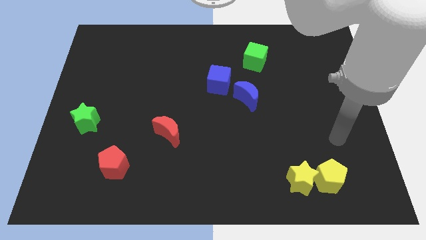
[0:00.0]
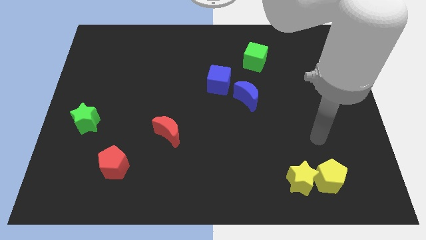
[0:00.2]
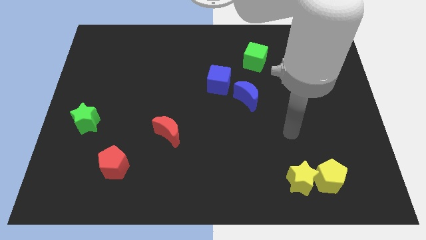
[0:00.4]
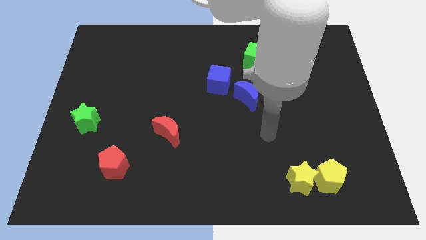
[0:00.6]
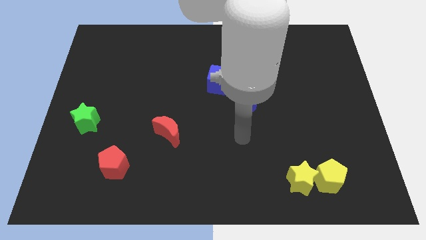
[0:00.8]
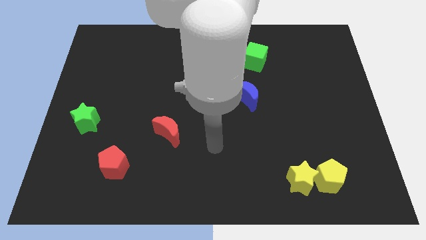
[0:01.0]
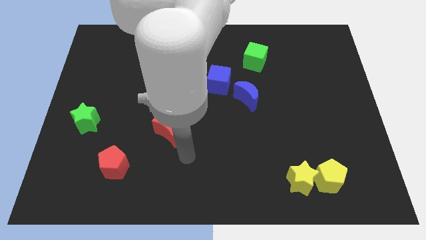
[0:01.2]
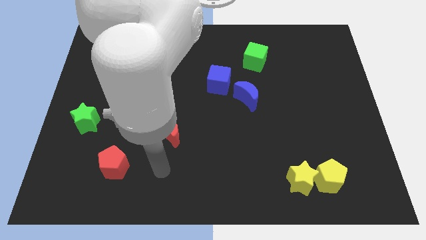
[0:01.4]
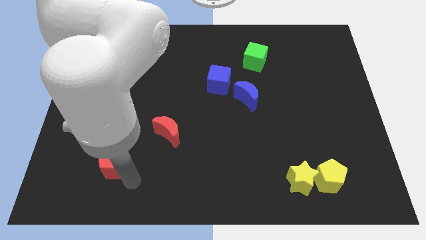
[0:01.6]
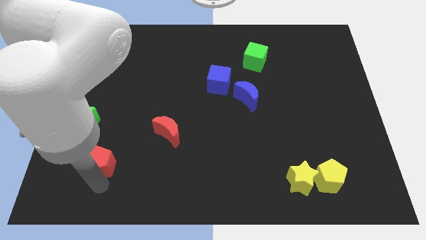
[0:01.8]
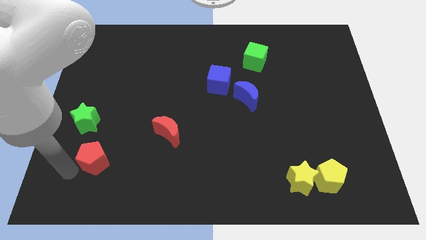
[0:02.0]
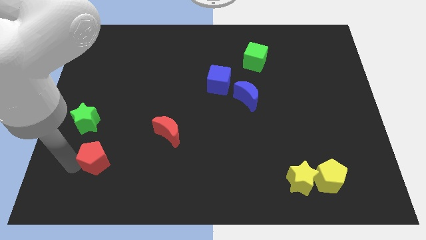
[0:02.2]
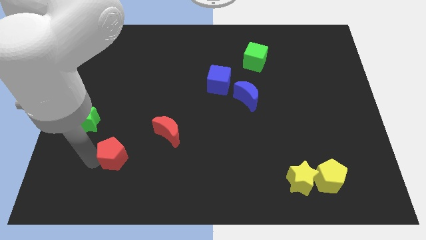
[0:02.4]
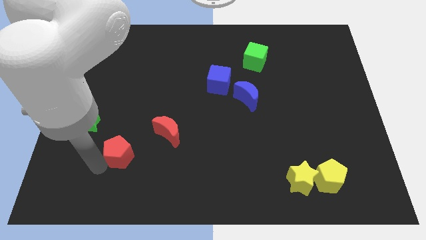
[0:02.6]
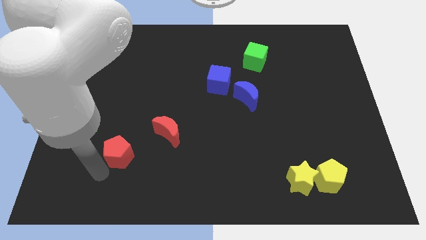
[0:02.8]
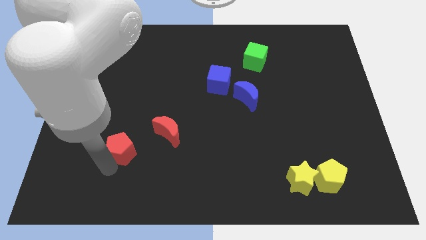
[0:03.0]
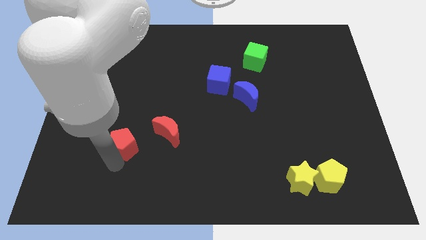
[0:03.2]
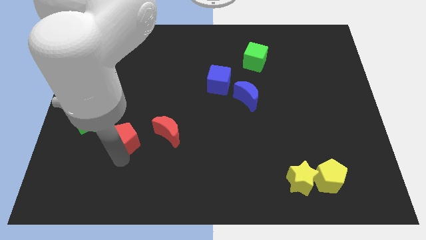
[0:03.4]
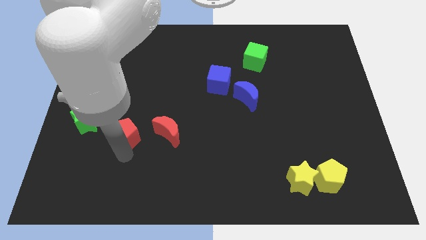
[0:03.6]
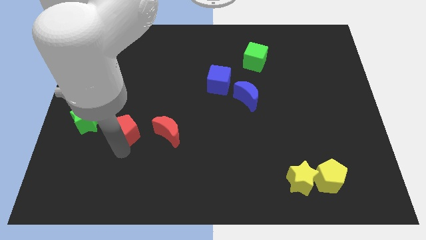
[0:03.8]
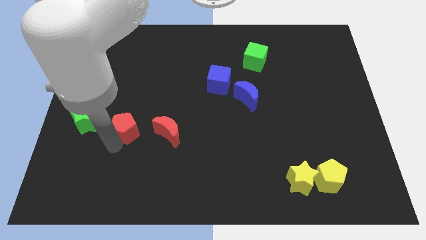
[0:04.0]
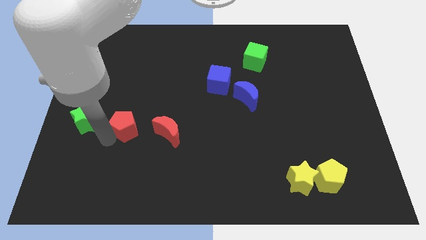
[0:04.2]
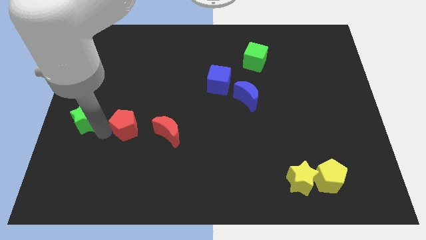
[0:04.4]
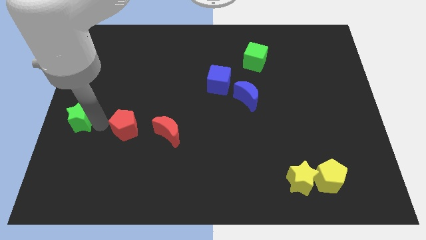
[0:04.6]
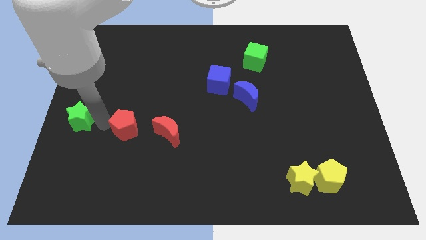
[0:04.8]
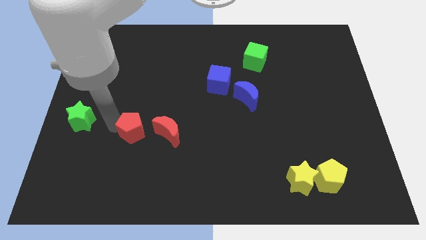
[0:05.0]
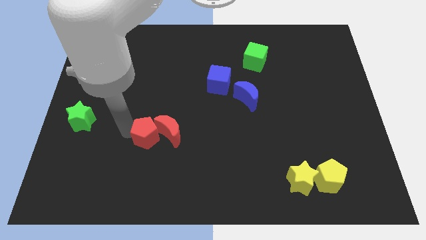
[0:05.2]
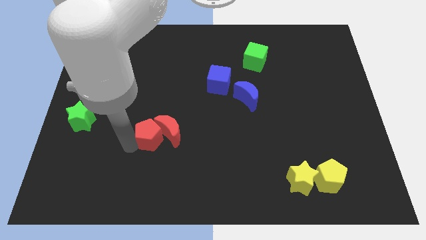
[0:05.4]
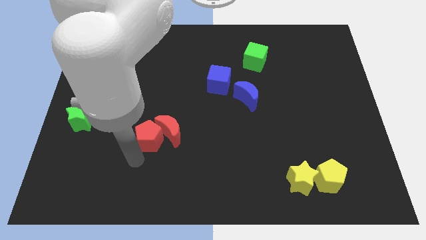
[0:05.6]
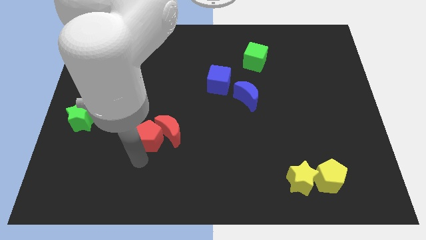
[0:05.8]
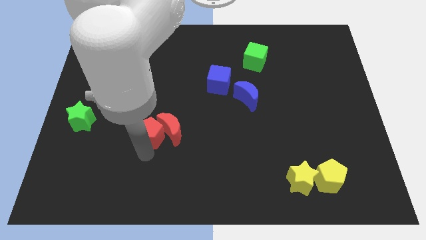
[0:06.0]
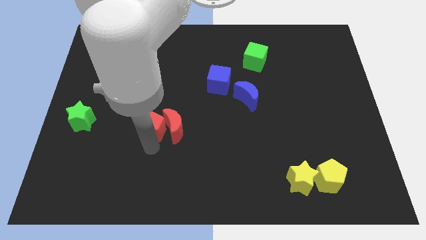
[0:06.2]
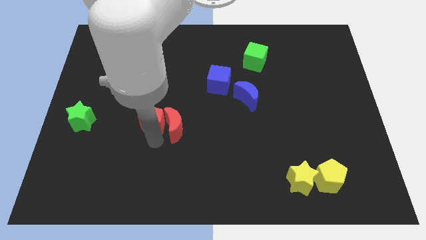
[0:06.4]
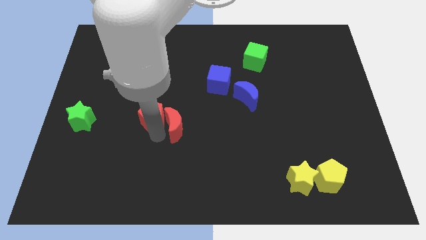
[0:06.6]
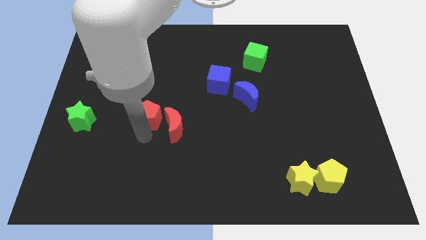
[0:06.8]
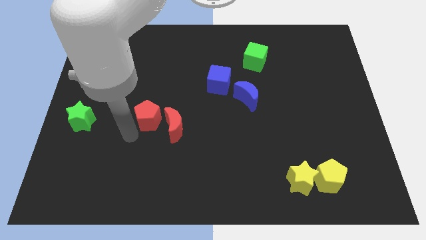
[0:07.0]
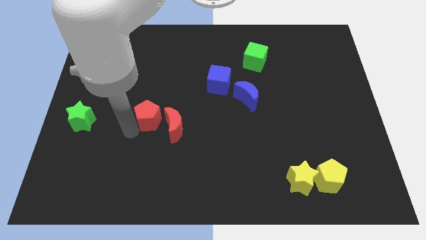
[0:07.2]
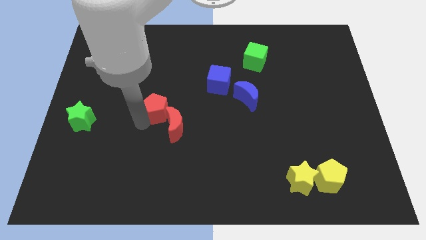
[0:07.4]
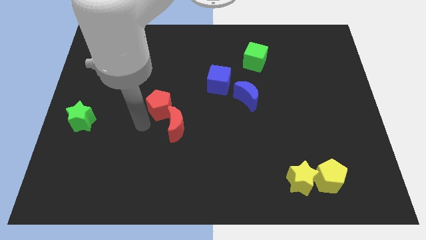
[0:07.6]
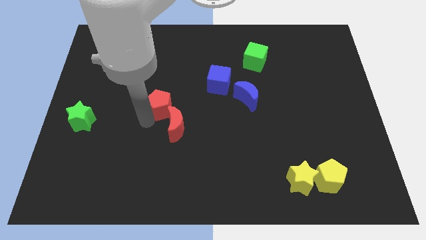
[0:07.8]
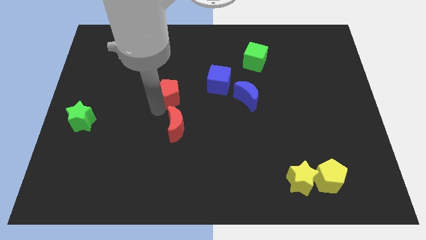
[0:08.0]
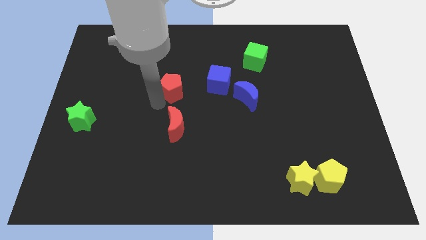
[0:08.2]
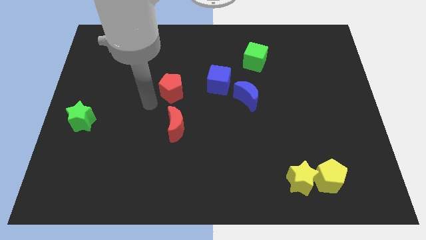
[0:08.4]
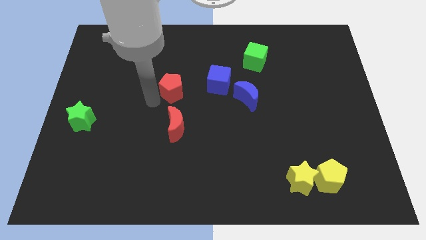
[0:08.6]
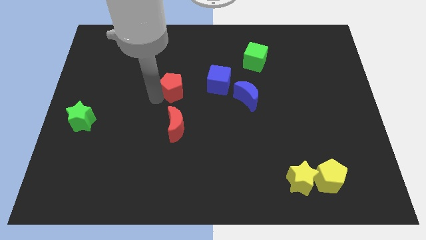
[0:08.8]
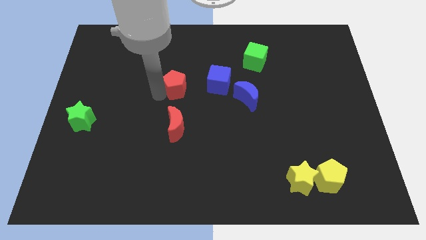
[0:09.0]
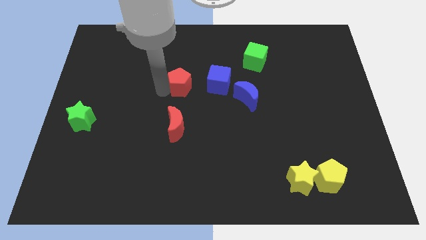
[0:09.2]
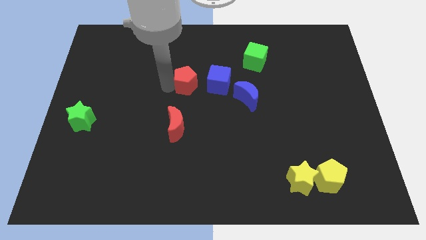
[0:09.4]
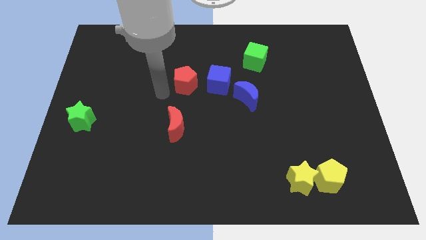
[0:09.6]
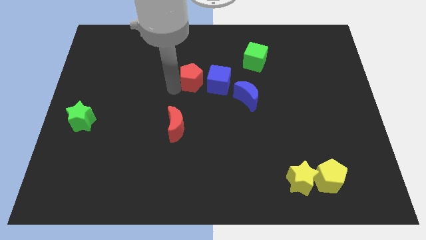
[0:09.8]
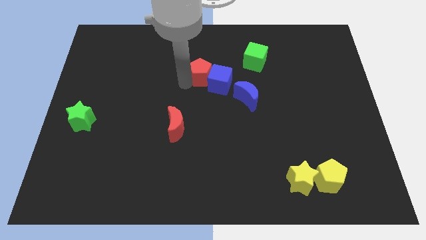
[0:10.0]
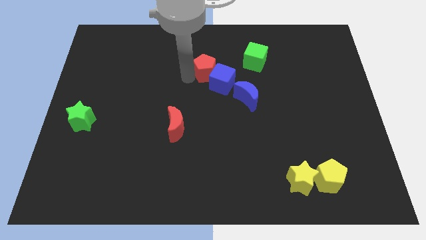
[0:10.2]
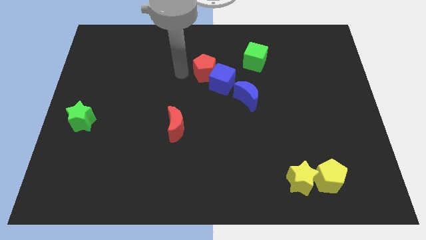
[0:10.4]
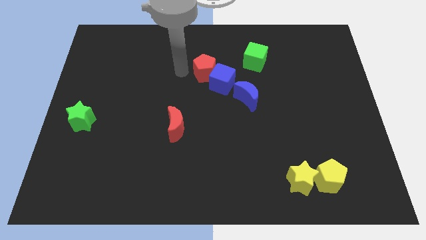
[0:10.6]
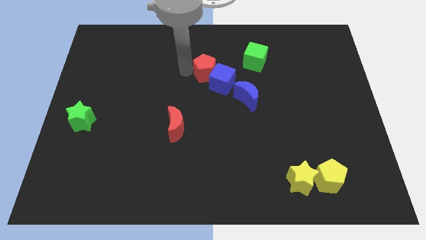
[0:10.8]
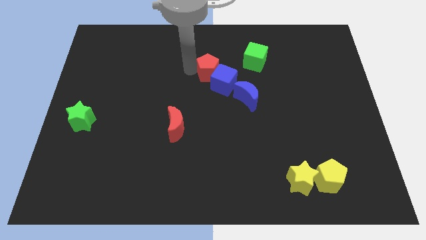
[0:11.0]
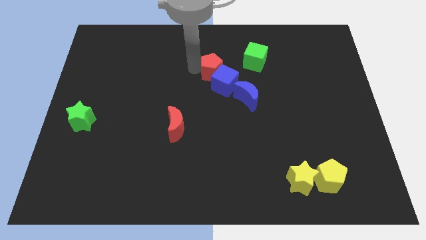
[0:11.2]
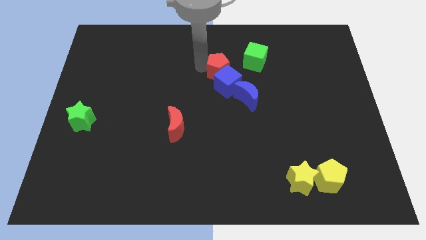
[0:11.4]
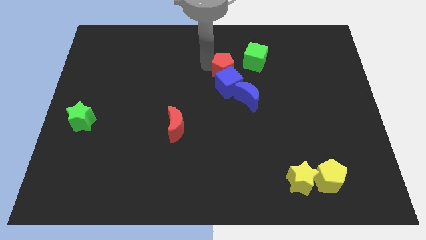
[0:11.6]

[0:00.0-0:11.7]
put the red pentagon to the top right of the blue cube

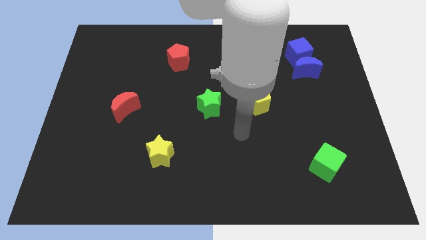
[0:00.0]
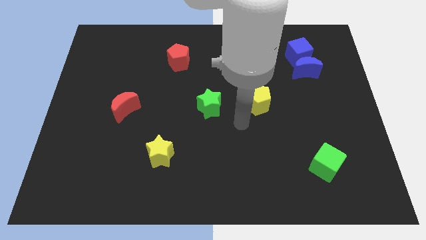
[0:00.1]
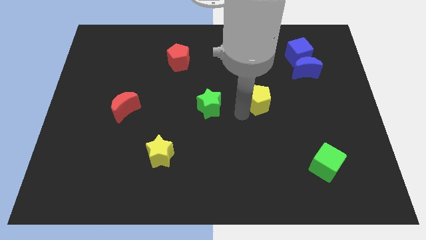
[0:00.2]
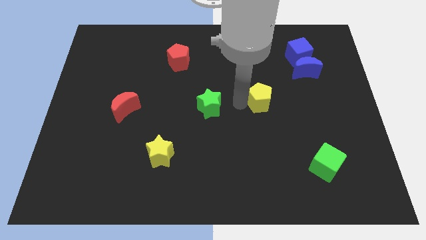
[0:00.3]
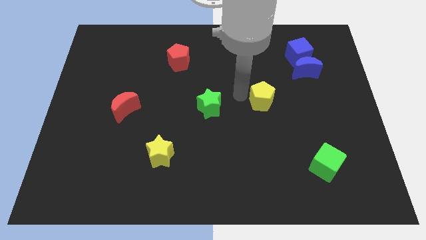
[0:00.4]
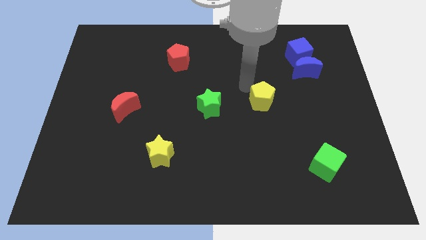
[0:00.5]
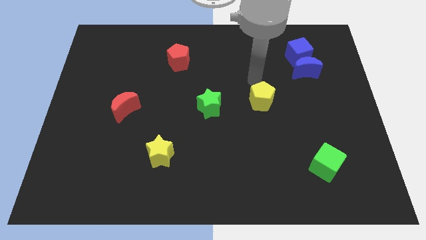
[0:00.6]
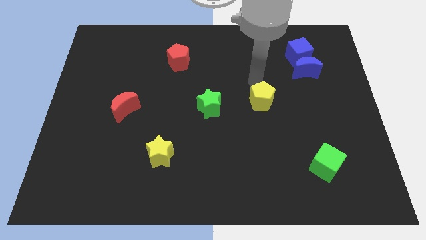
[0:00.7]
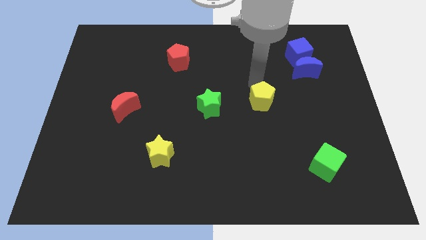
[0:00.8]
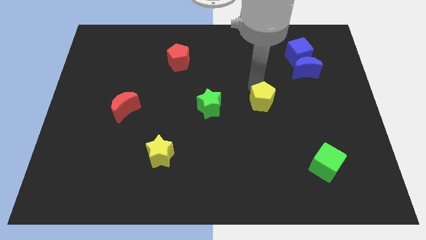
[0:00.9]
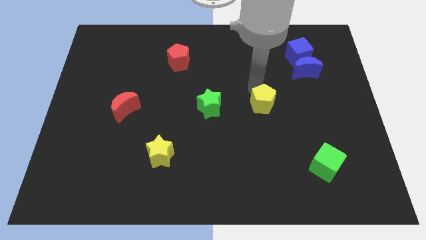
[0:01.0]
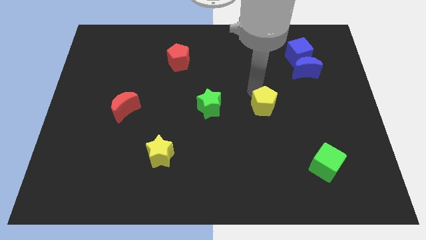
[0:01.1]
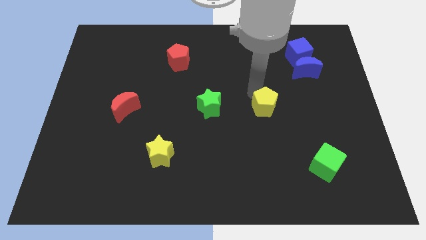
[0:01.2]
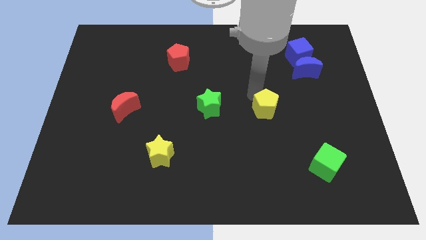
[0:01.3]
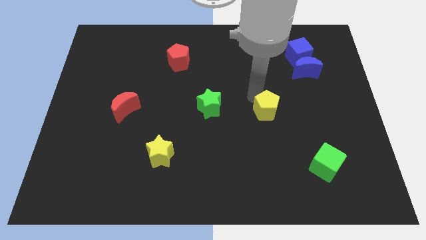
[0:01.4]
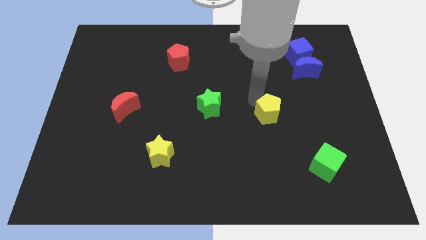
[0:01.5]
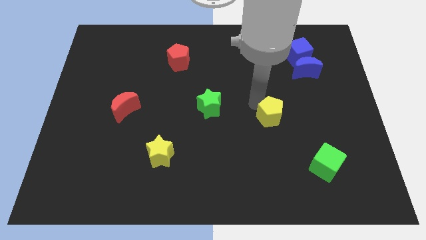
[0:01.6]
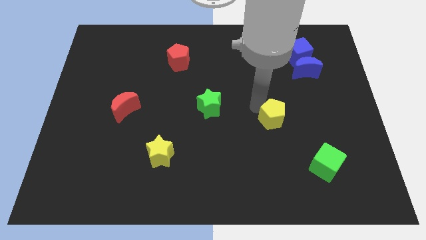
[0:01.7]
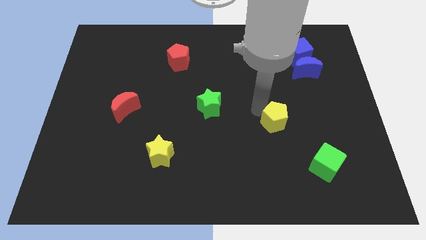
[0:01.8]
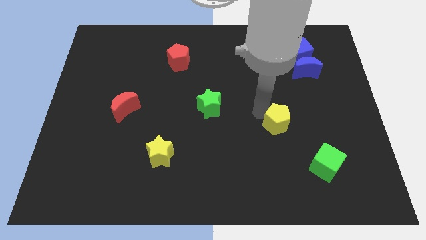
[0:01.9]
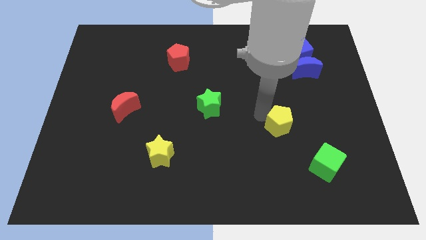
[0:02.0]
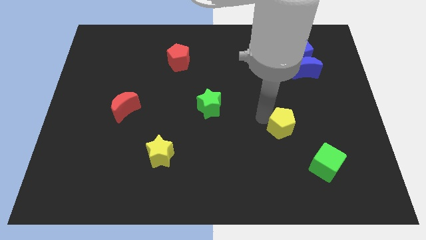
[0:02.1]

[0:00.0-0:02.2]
push the yellow pentagon diagonally up and to the left of the green cube
